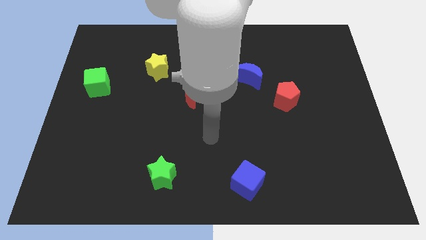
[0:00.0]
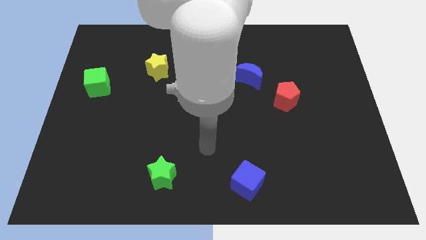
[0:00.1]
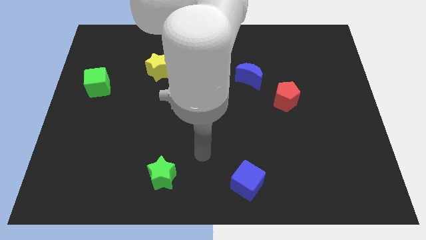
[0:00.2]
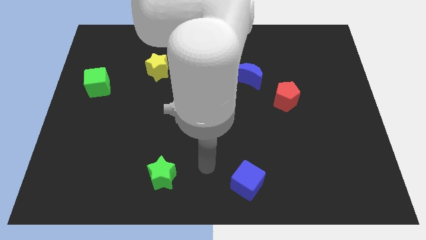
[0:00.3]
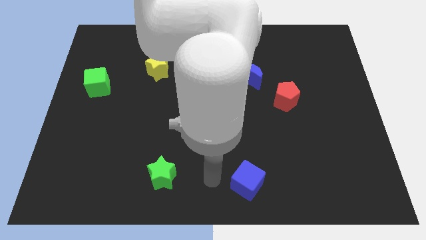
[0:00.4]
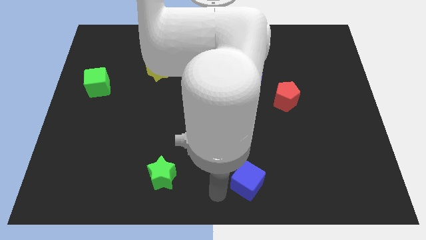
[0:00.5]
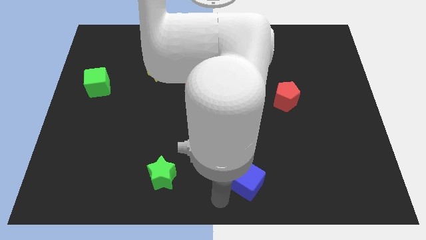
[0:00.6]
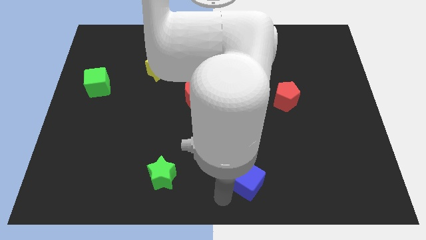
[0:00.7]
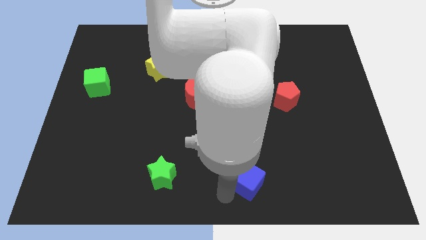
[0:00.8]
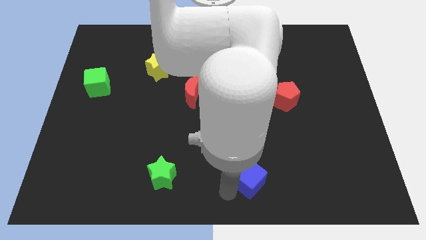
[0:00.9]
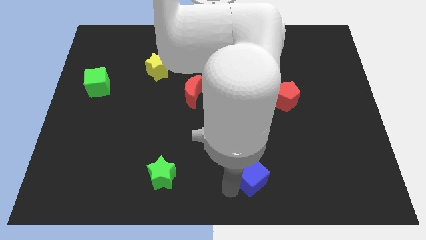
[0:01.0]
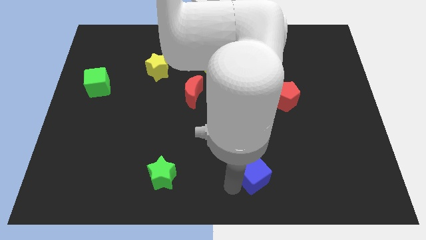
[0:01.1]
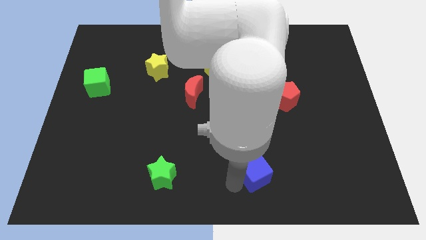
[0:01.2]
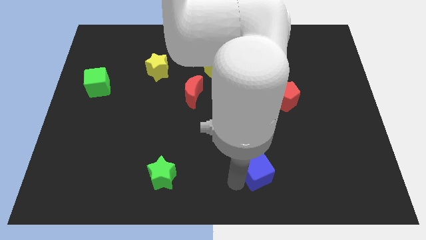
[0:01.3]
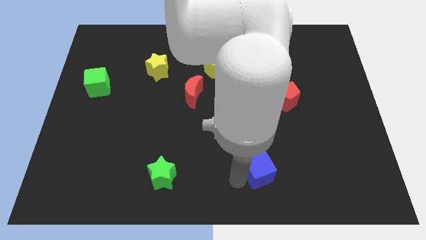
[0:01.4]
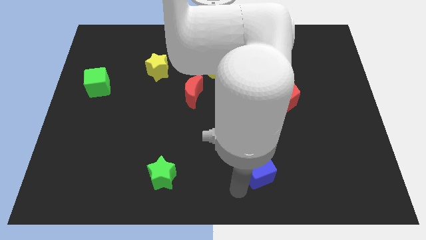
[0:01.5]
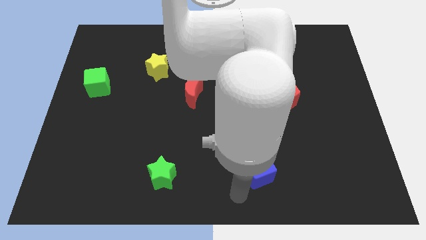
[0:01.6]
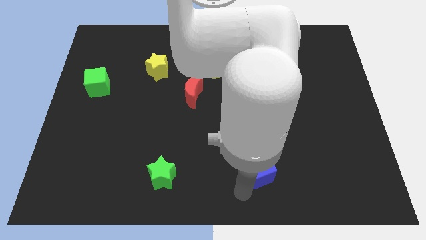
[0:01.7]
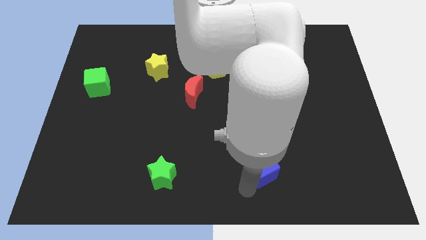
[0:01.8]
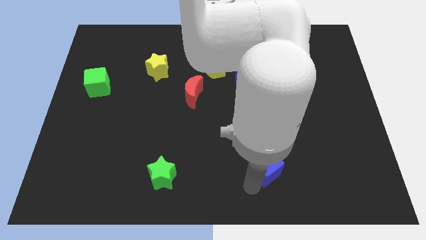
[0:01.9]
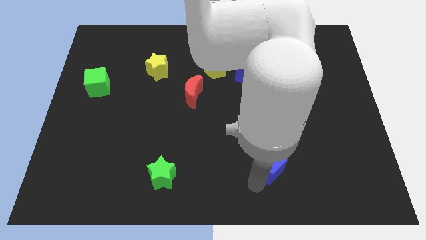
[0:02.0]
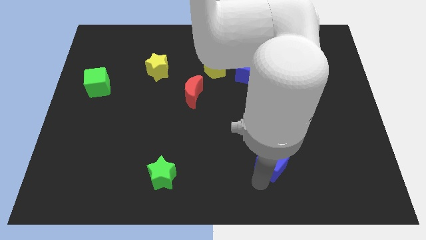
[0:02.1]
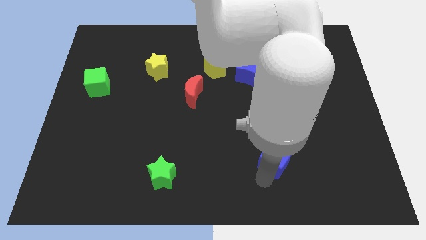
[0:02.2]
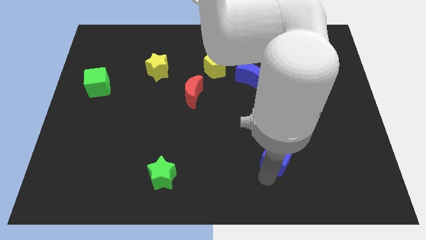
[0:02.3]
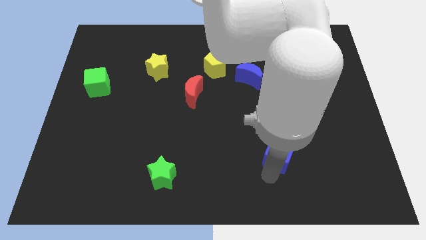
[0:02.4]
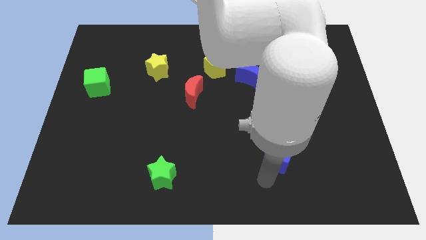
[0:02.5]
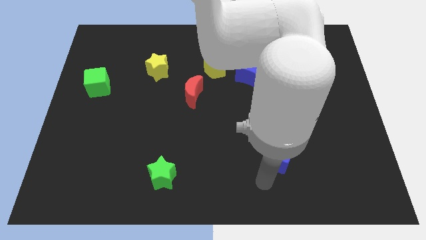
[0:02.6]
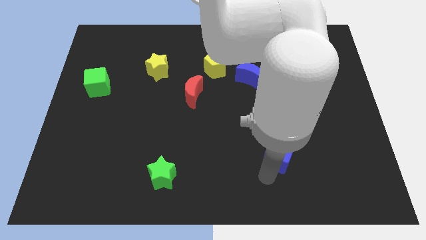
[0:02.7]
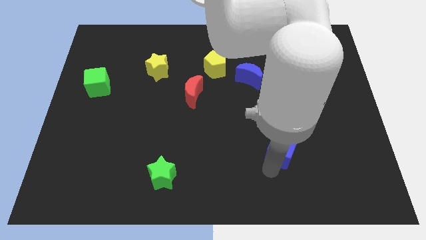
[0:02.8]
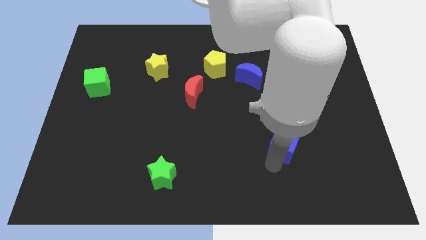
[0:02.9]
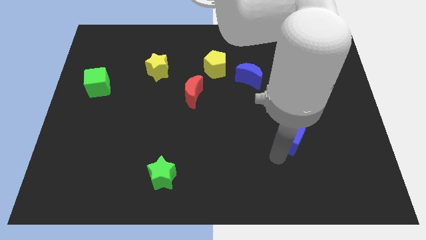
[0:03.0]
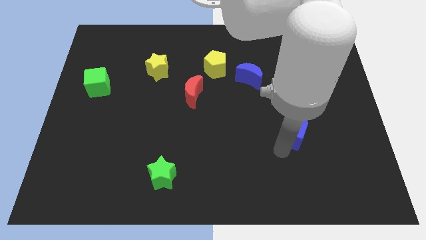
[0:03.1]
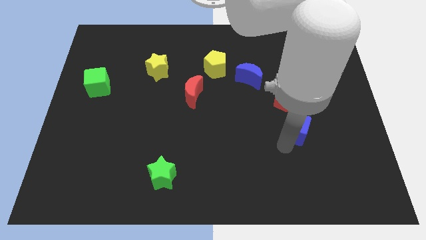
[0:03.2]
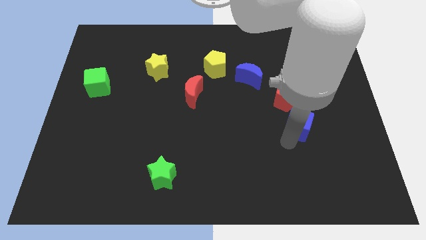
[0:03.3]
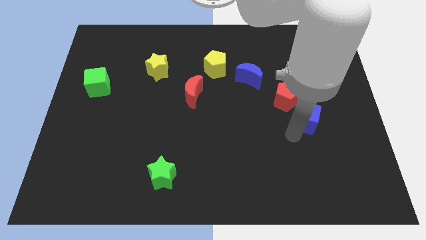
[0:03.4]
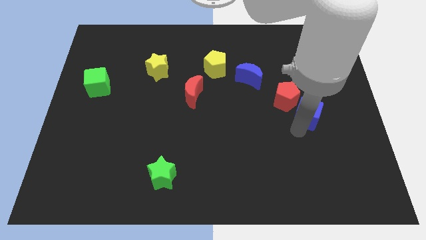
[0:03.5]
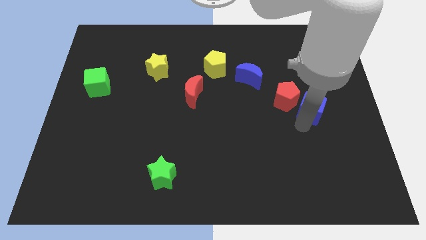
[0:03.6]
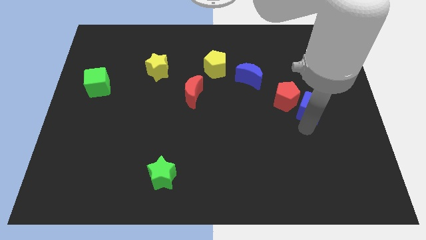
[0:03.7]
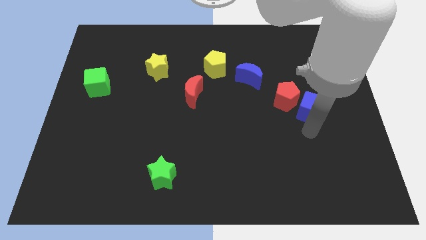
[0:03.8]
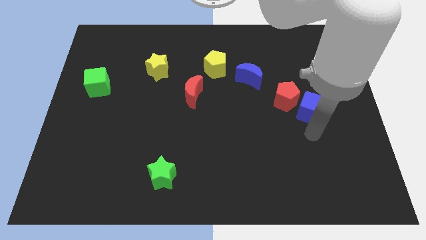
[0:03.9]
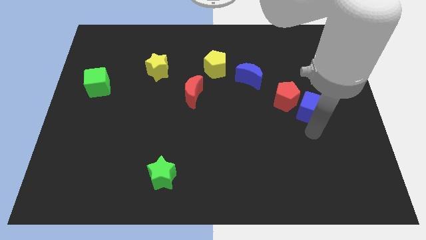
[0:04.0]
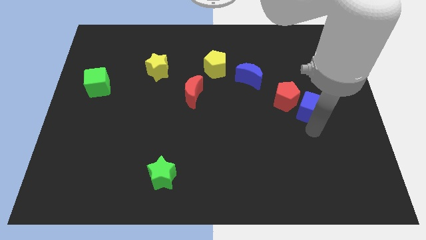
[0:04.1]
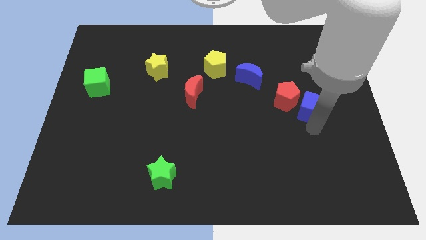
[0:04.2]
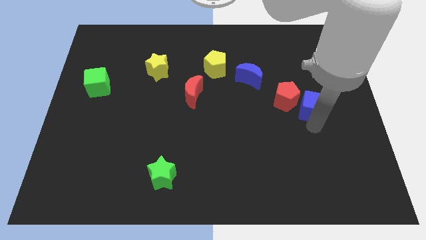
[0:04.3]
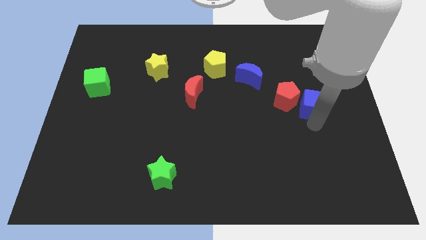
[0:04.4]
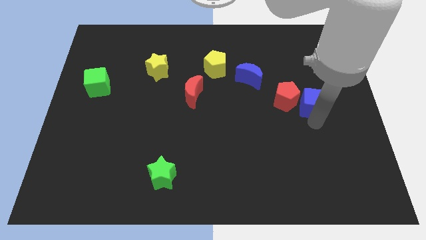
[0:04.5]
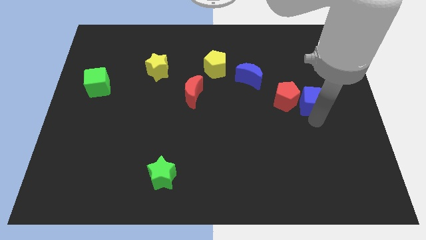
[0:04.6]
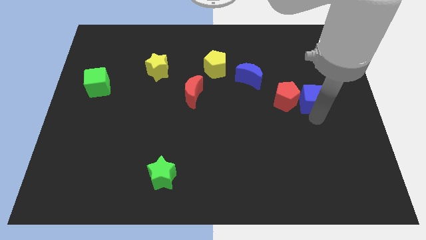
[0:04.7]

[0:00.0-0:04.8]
move the blue cube to the top right of the red pentagon

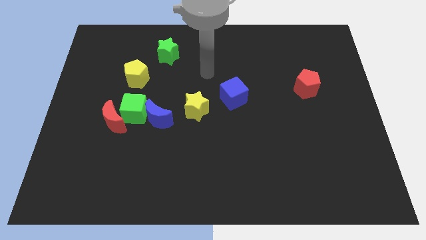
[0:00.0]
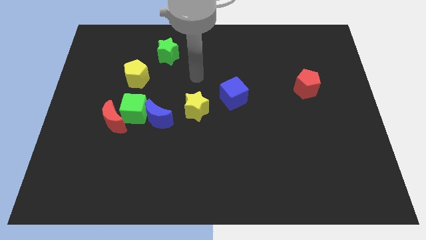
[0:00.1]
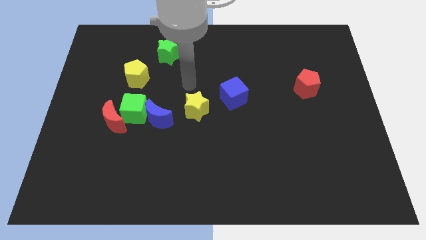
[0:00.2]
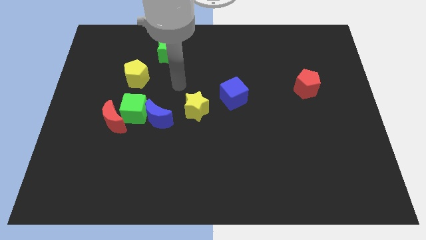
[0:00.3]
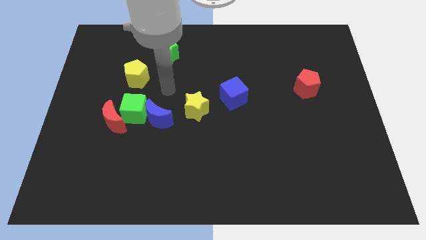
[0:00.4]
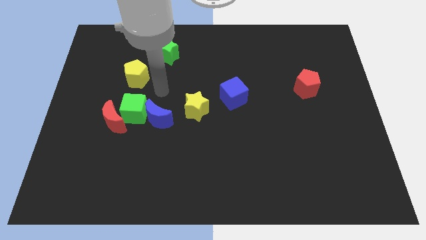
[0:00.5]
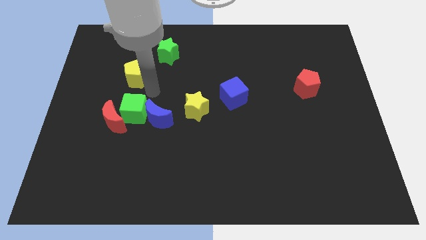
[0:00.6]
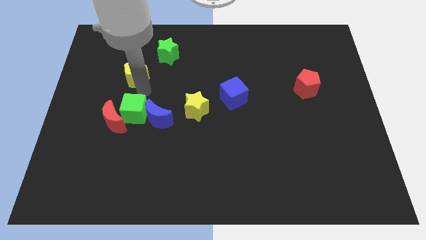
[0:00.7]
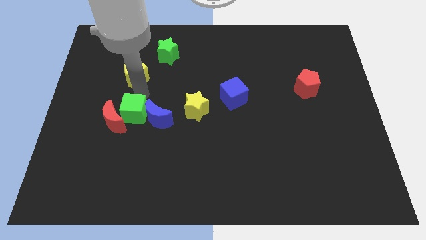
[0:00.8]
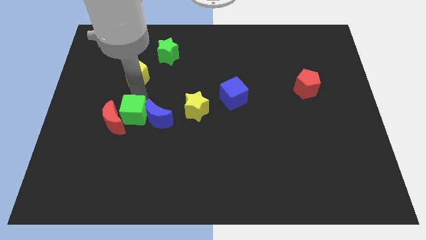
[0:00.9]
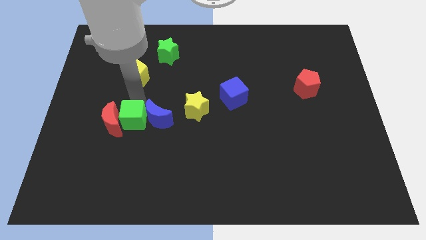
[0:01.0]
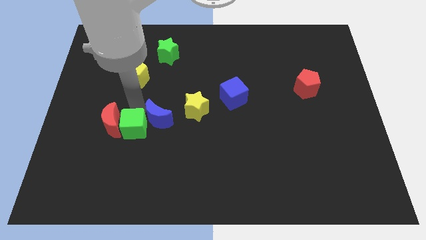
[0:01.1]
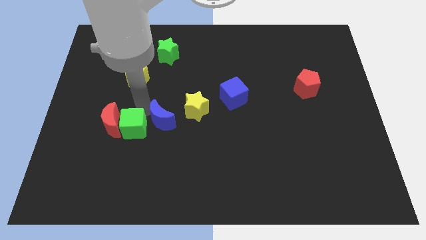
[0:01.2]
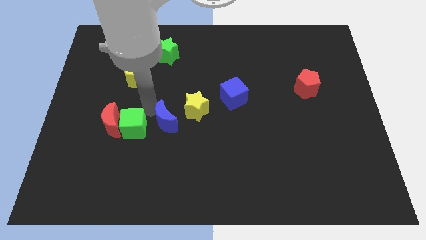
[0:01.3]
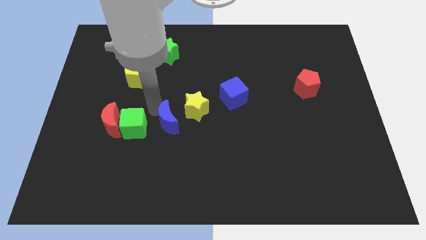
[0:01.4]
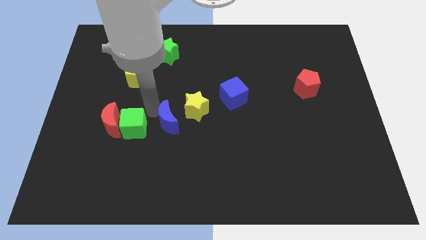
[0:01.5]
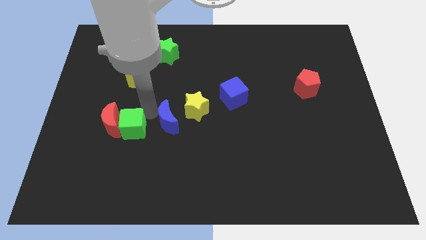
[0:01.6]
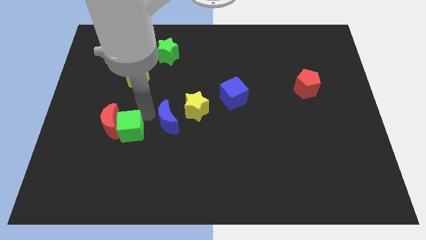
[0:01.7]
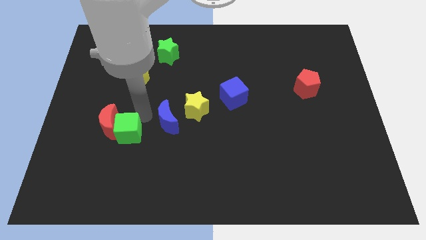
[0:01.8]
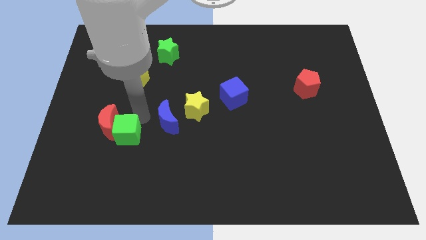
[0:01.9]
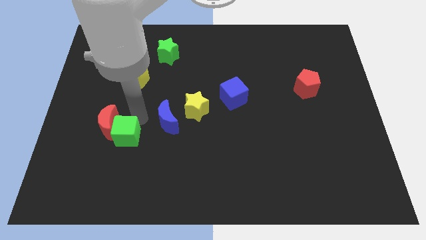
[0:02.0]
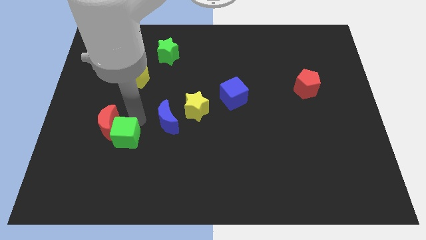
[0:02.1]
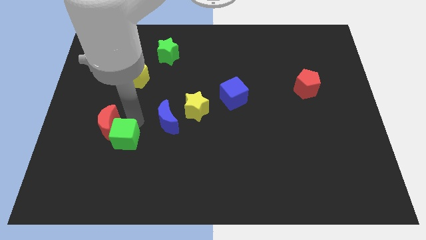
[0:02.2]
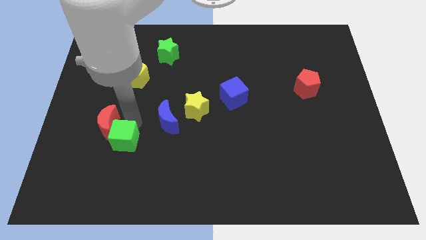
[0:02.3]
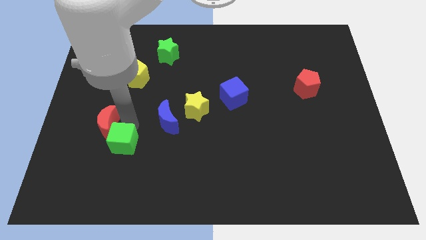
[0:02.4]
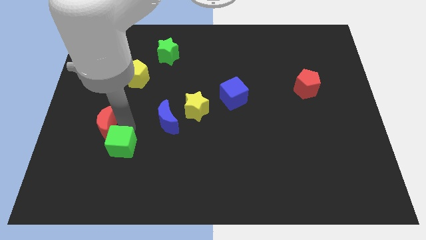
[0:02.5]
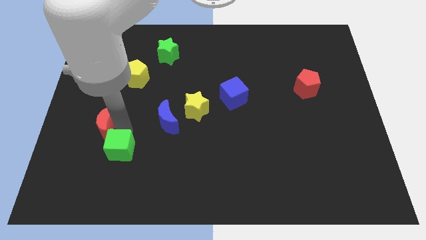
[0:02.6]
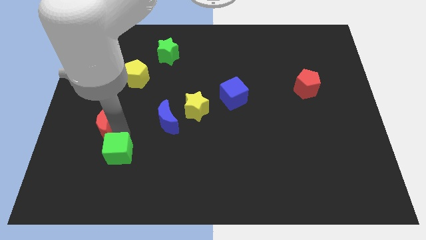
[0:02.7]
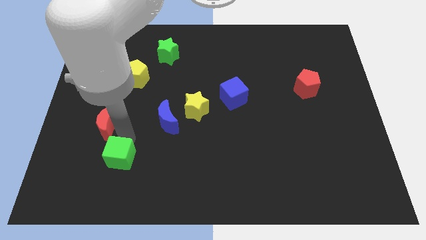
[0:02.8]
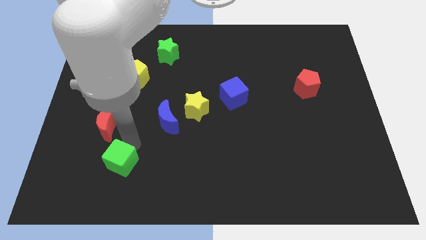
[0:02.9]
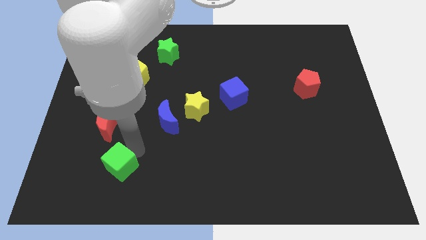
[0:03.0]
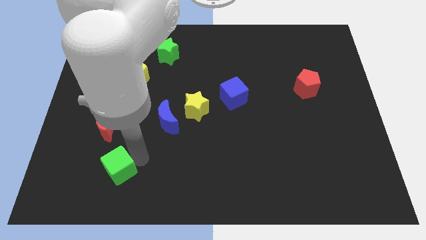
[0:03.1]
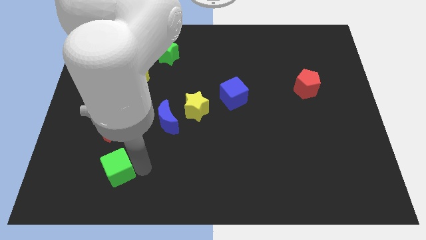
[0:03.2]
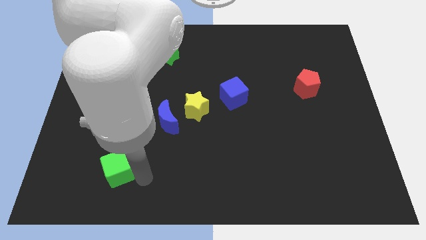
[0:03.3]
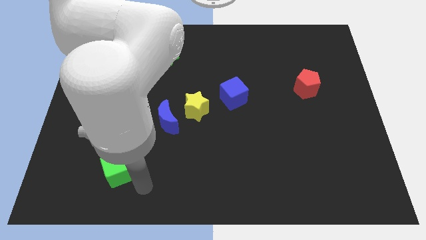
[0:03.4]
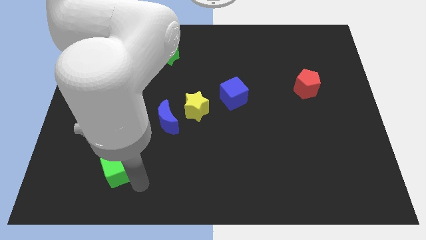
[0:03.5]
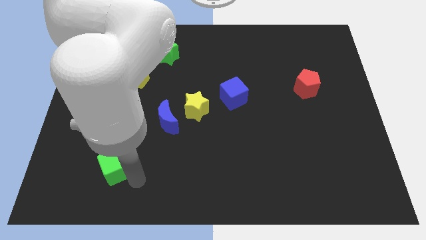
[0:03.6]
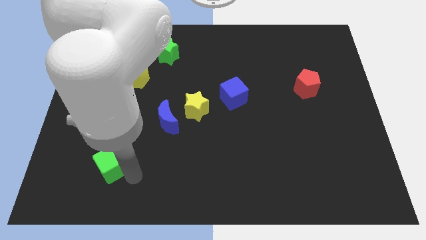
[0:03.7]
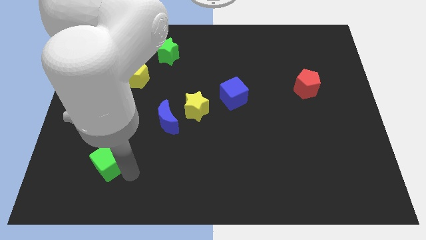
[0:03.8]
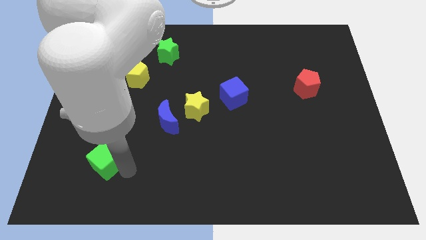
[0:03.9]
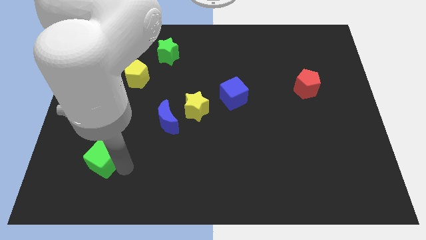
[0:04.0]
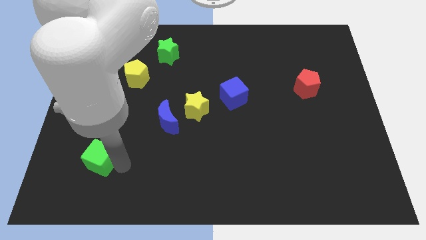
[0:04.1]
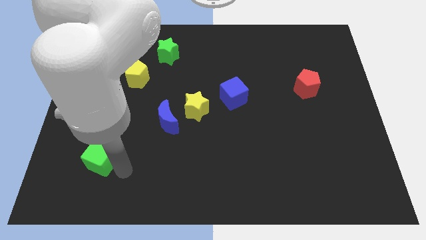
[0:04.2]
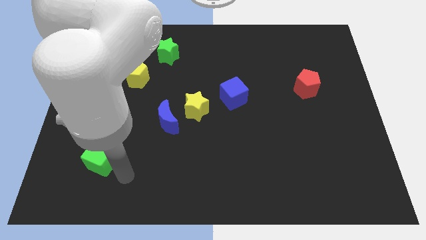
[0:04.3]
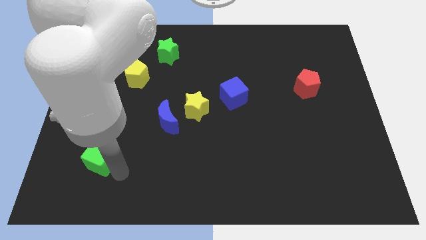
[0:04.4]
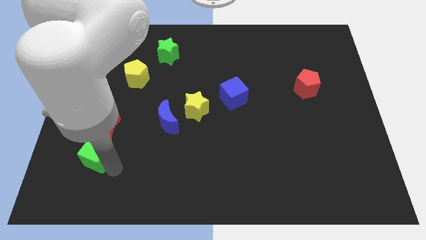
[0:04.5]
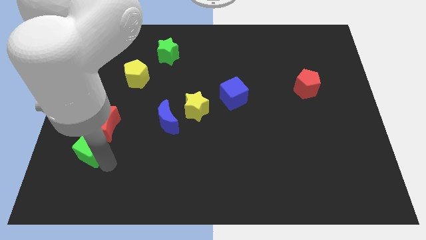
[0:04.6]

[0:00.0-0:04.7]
slide the green cube to the bottom left of the red moon
